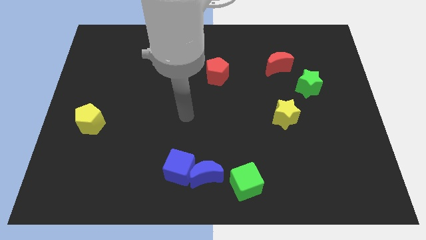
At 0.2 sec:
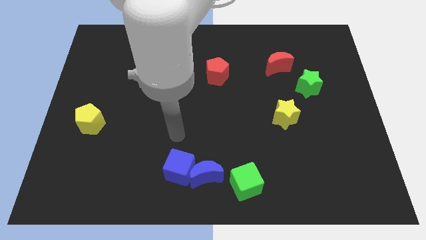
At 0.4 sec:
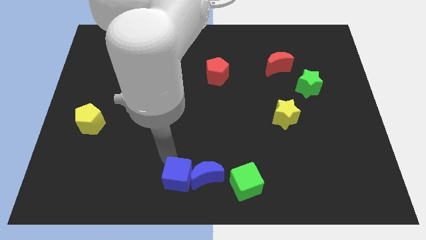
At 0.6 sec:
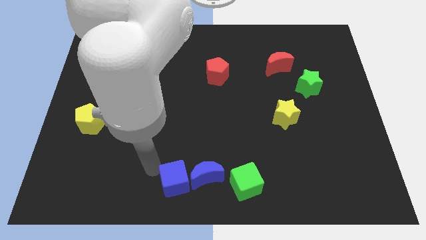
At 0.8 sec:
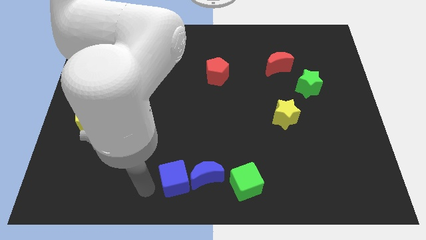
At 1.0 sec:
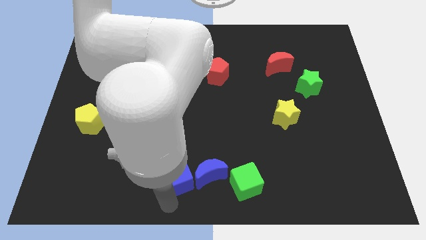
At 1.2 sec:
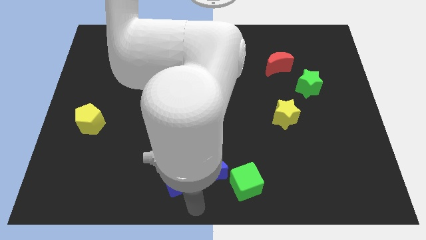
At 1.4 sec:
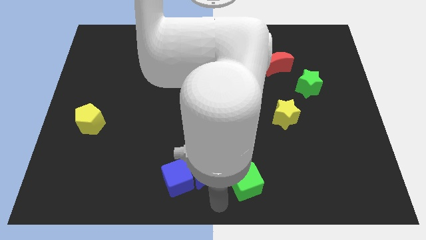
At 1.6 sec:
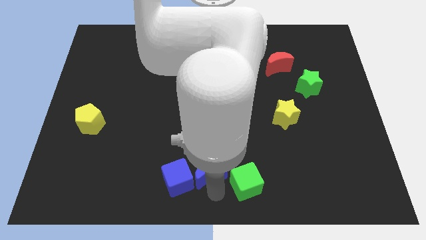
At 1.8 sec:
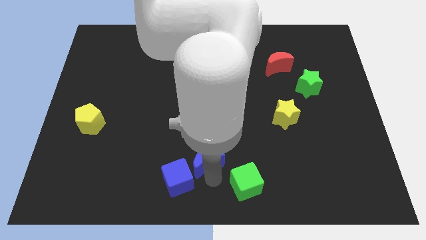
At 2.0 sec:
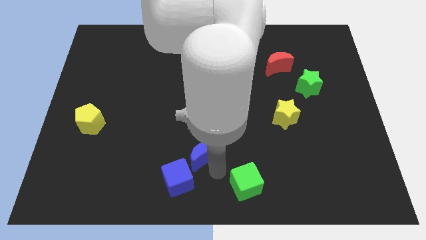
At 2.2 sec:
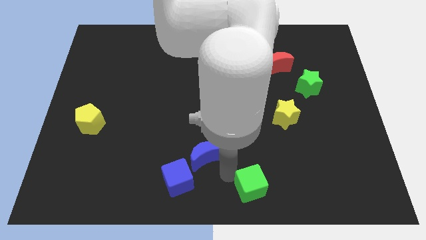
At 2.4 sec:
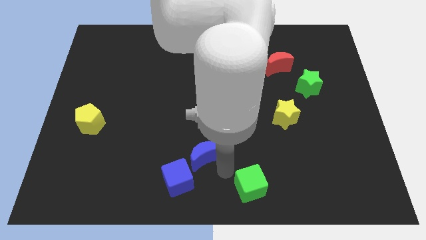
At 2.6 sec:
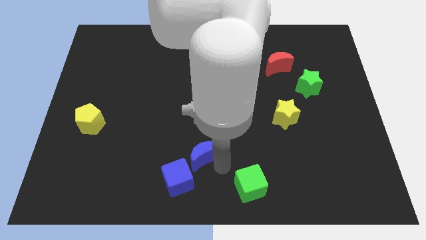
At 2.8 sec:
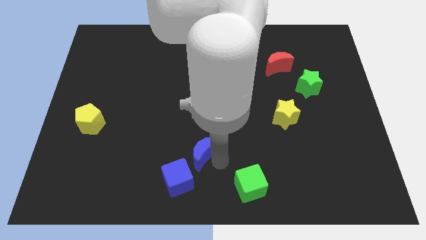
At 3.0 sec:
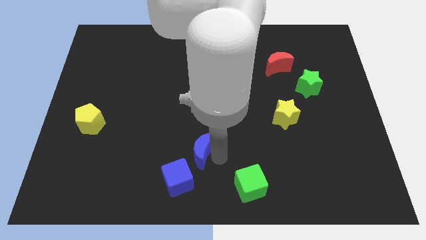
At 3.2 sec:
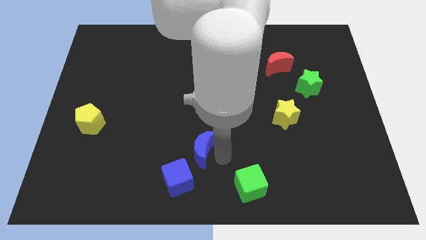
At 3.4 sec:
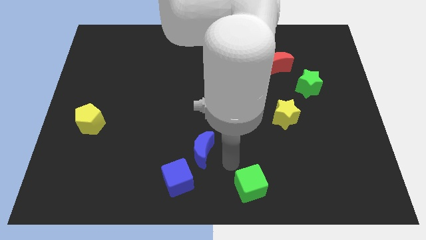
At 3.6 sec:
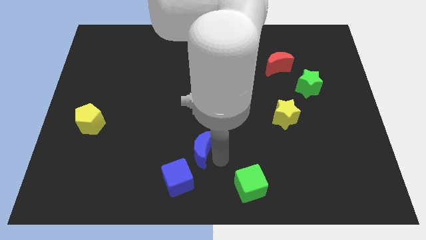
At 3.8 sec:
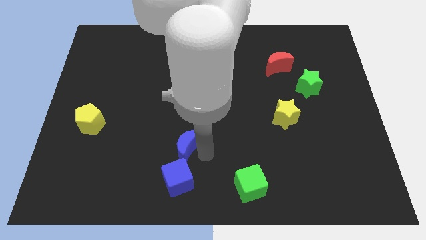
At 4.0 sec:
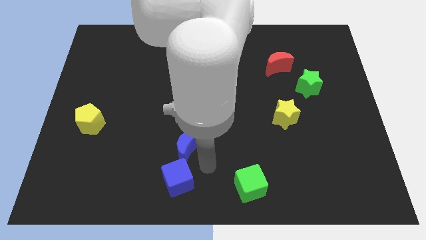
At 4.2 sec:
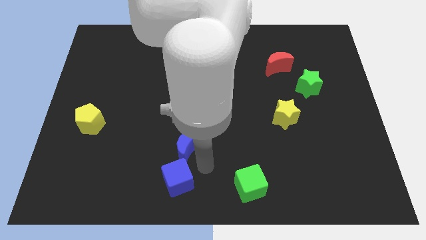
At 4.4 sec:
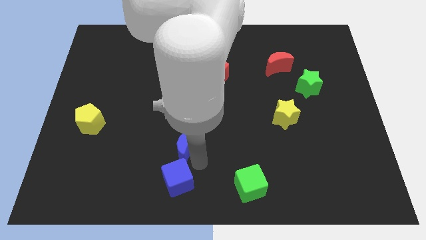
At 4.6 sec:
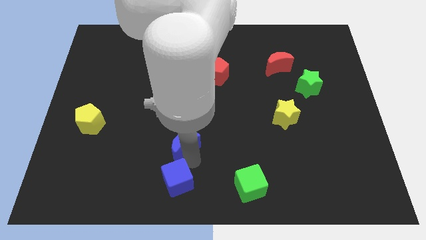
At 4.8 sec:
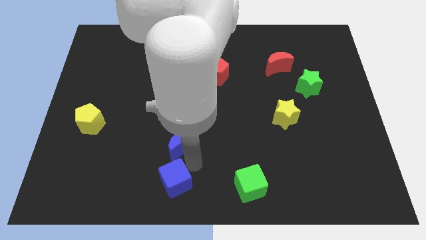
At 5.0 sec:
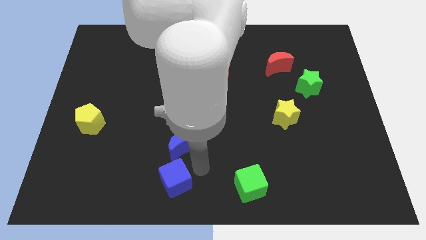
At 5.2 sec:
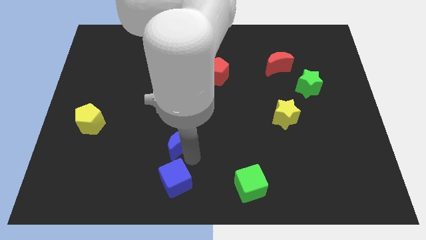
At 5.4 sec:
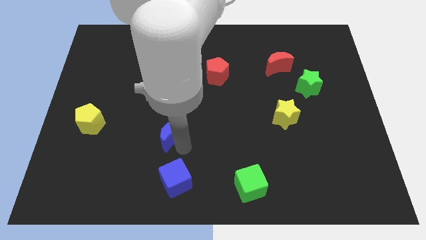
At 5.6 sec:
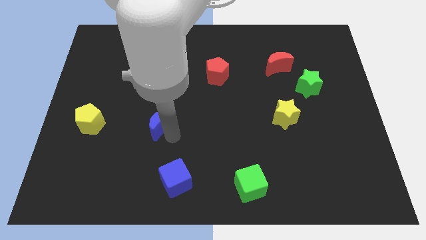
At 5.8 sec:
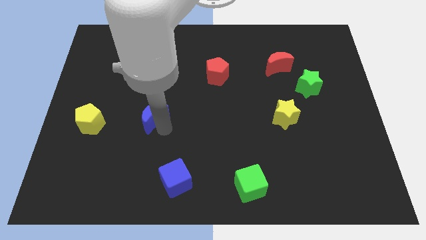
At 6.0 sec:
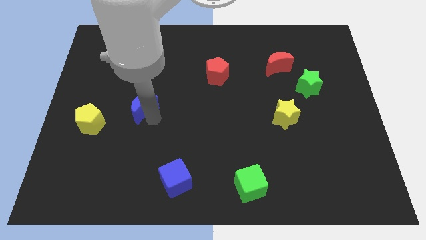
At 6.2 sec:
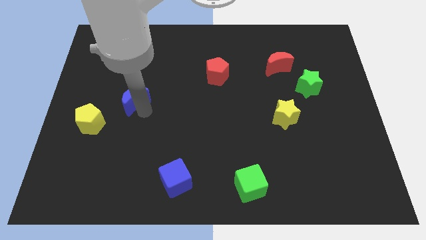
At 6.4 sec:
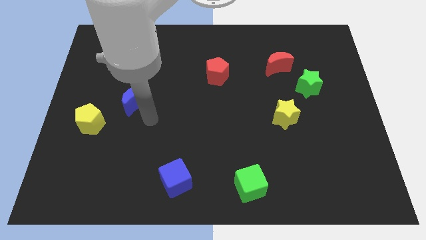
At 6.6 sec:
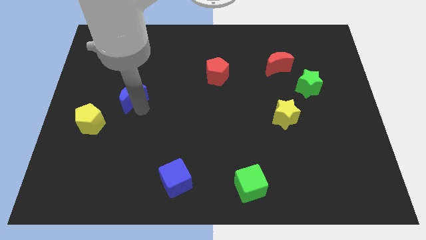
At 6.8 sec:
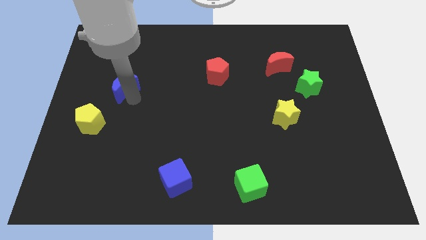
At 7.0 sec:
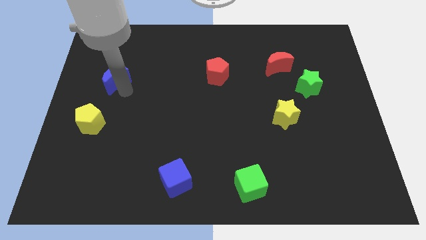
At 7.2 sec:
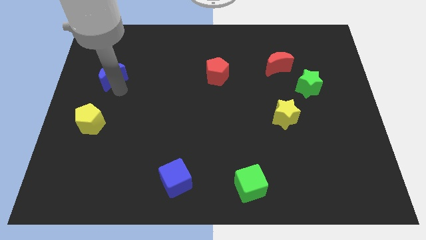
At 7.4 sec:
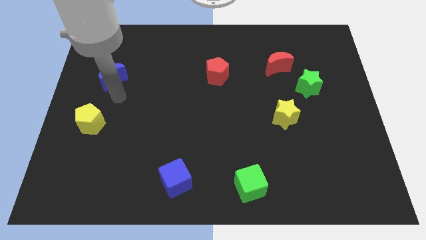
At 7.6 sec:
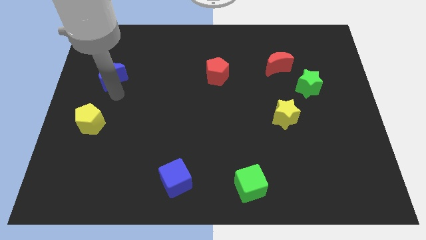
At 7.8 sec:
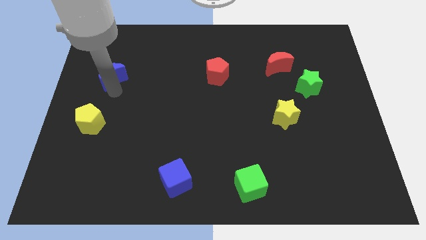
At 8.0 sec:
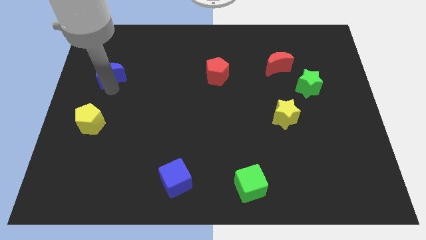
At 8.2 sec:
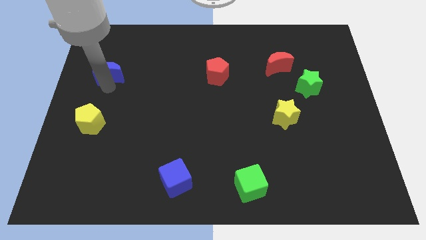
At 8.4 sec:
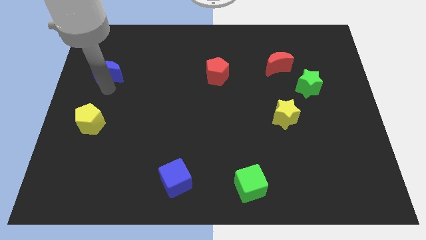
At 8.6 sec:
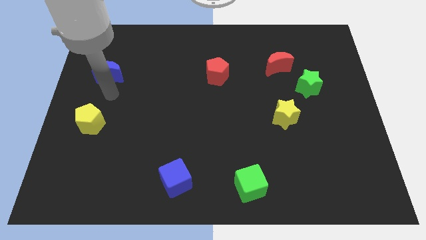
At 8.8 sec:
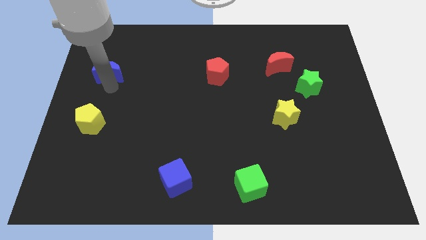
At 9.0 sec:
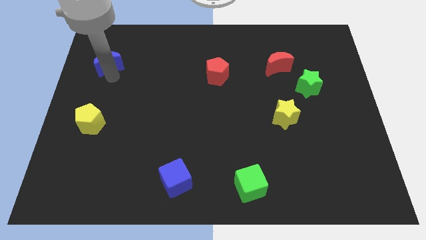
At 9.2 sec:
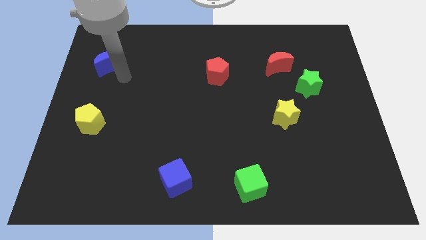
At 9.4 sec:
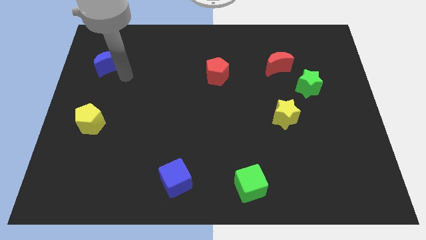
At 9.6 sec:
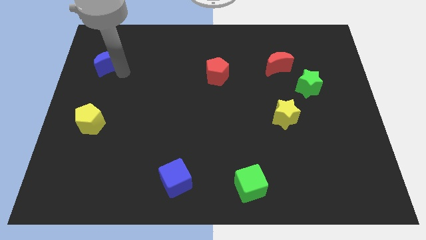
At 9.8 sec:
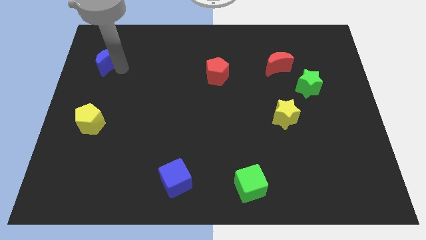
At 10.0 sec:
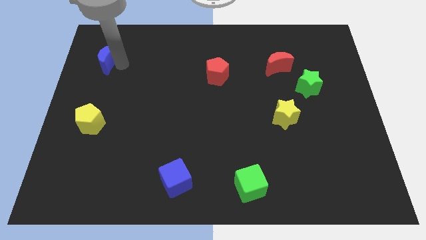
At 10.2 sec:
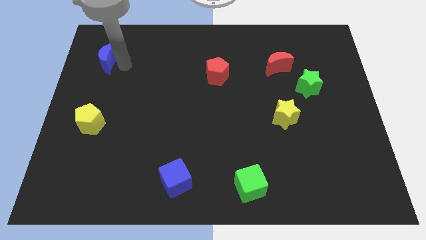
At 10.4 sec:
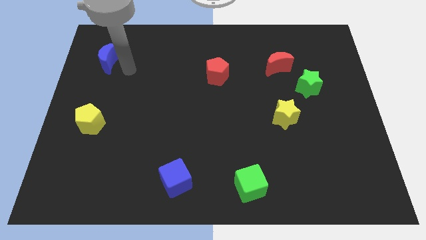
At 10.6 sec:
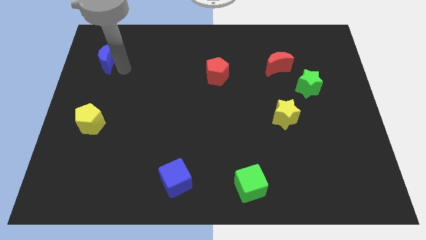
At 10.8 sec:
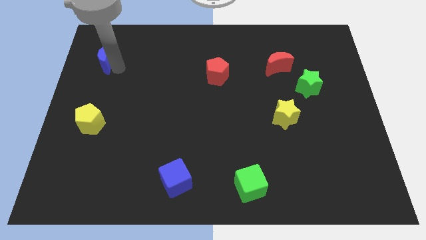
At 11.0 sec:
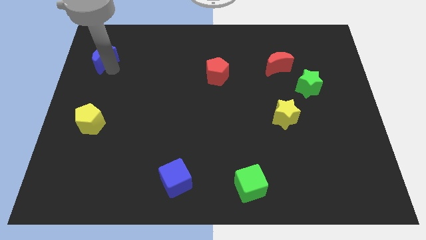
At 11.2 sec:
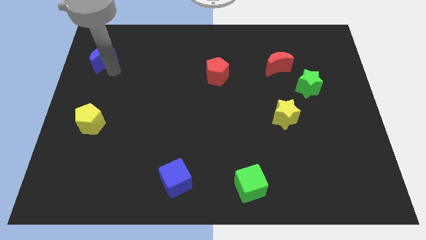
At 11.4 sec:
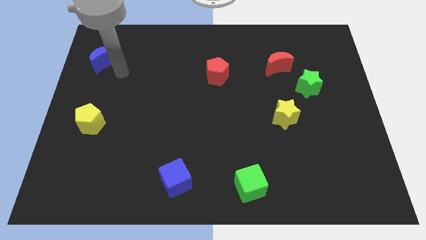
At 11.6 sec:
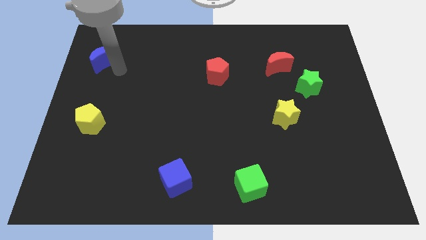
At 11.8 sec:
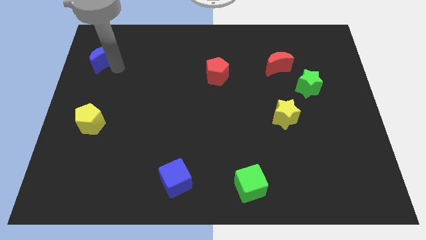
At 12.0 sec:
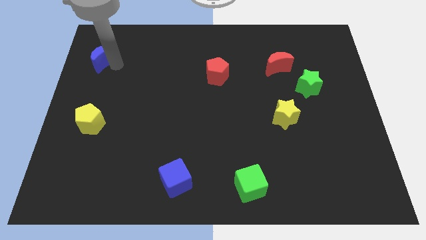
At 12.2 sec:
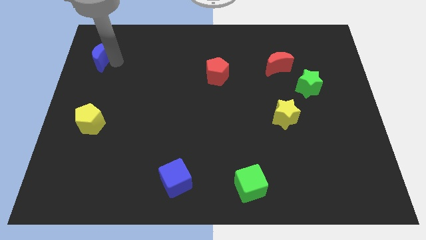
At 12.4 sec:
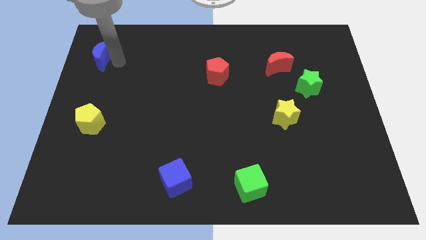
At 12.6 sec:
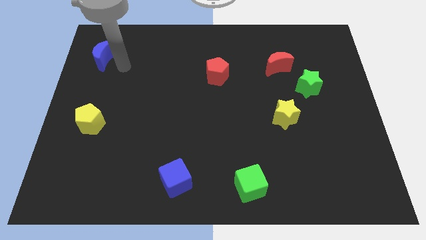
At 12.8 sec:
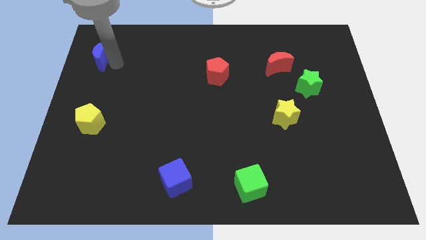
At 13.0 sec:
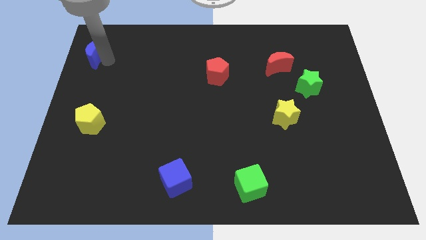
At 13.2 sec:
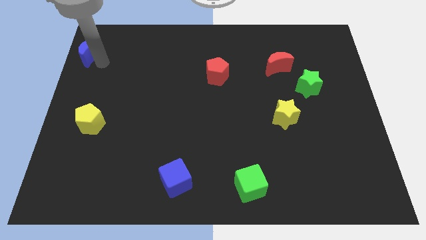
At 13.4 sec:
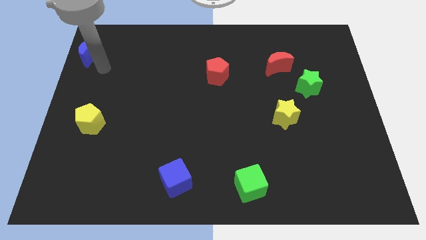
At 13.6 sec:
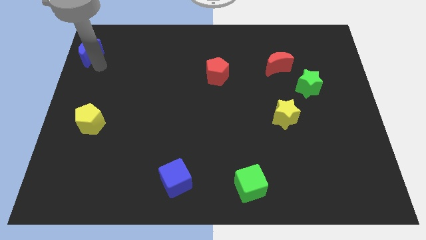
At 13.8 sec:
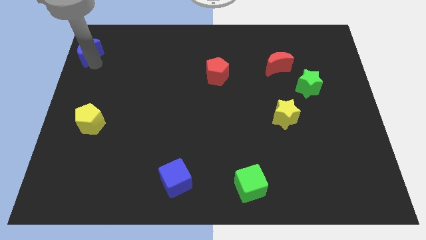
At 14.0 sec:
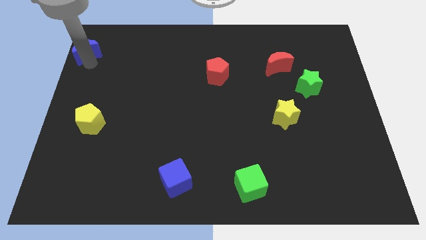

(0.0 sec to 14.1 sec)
put the blue moon to the top left of the board

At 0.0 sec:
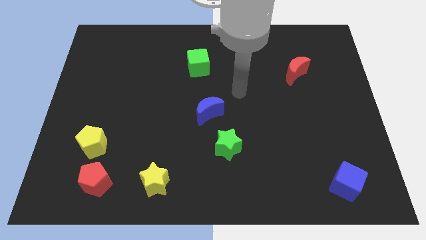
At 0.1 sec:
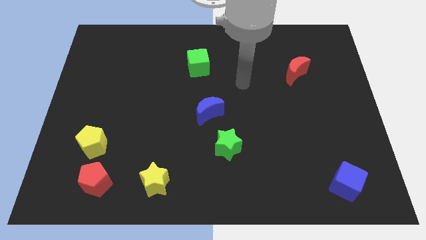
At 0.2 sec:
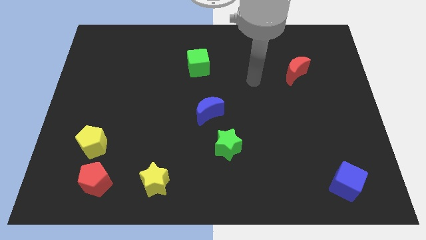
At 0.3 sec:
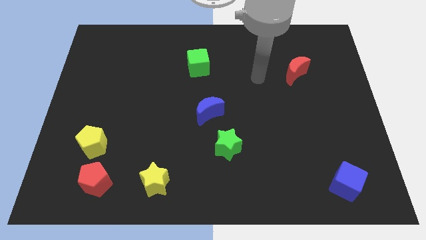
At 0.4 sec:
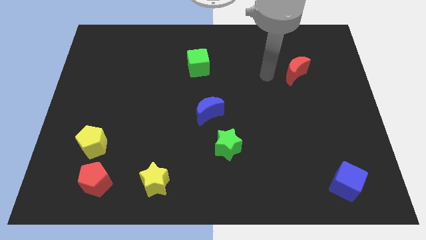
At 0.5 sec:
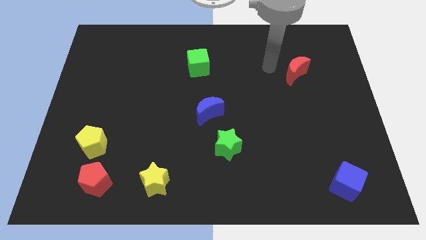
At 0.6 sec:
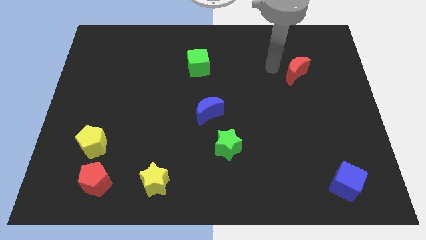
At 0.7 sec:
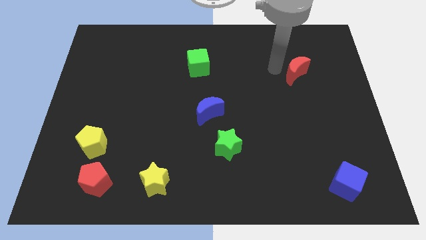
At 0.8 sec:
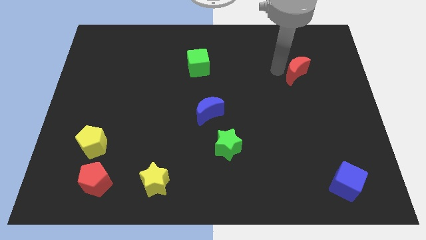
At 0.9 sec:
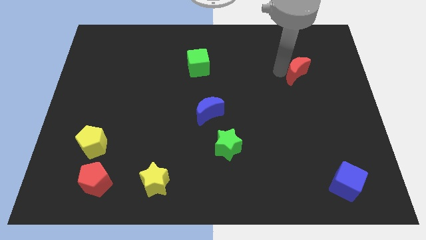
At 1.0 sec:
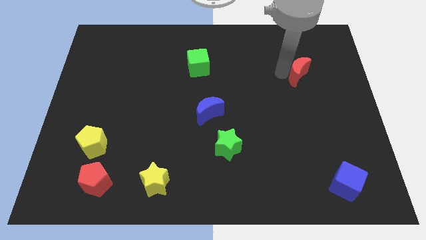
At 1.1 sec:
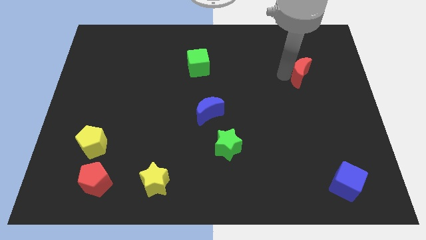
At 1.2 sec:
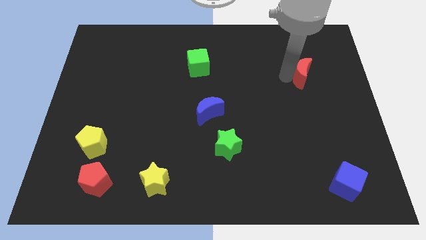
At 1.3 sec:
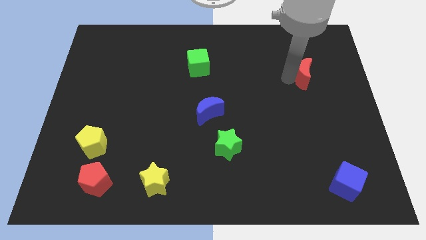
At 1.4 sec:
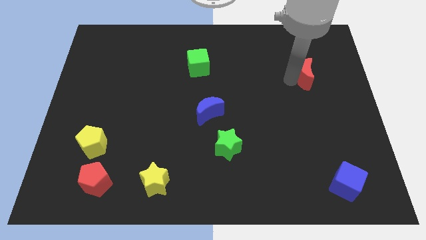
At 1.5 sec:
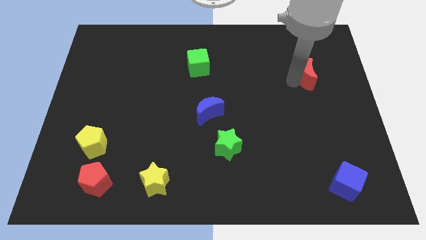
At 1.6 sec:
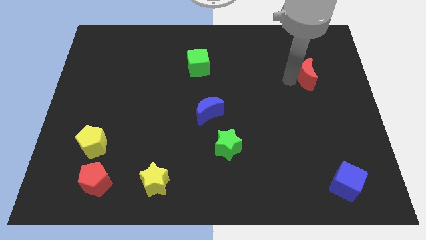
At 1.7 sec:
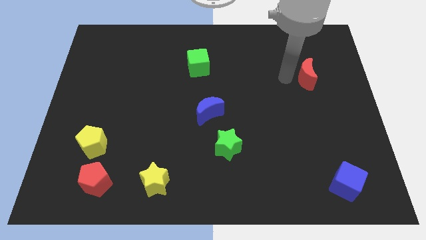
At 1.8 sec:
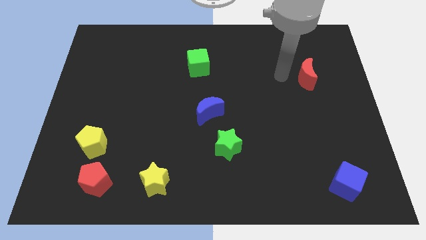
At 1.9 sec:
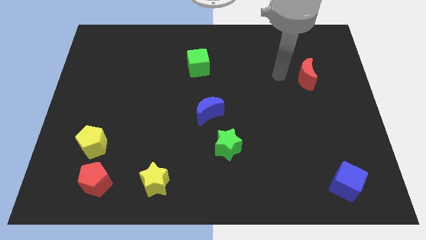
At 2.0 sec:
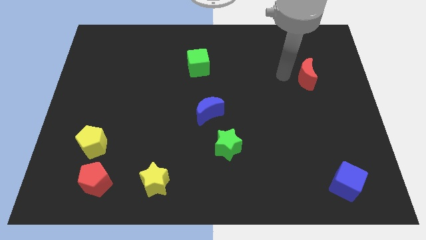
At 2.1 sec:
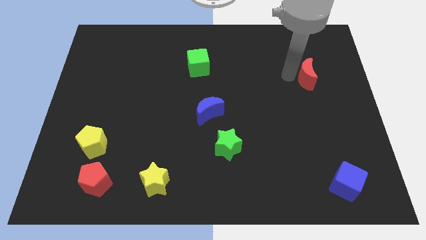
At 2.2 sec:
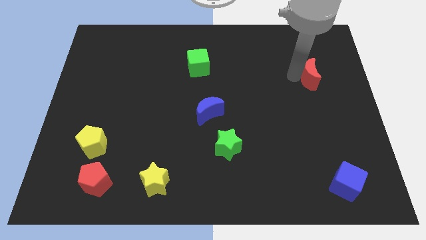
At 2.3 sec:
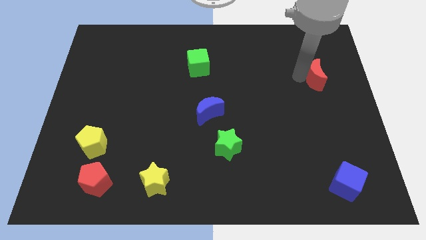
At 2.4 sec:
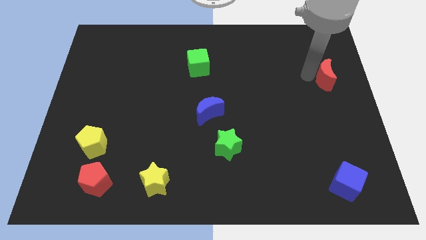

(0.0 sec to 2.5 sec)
push the red moon to the center right
